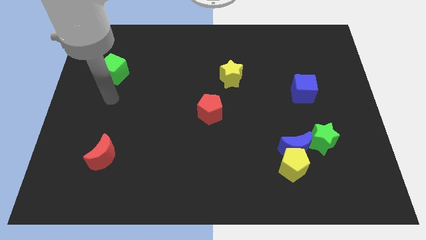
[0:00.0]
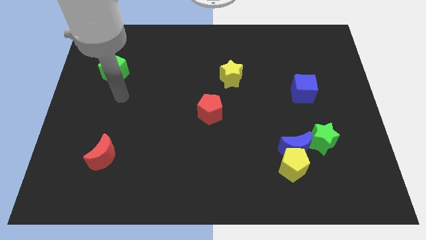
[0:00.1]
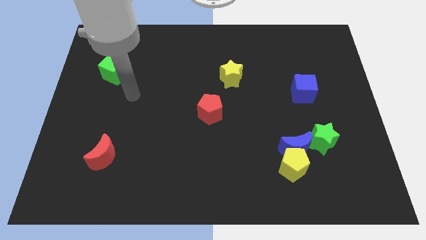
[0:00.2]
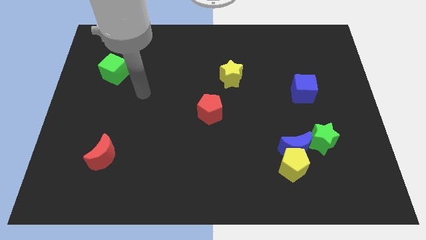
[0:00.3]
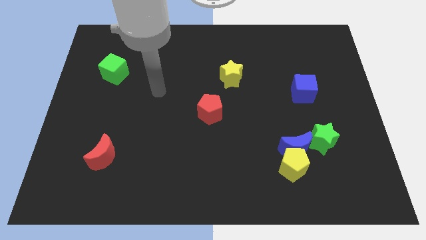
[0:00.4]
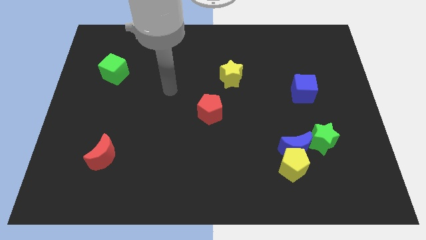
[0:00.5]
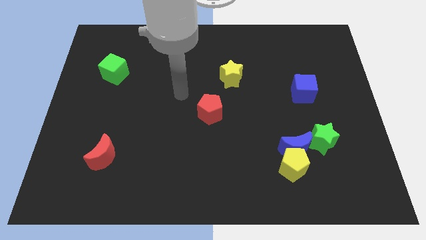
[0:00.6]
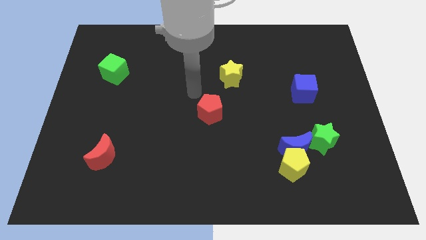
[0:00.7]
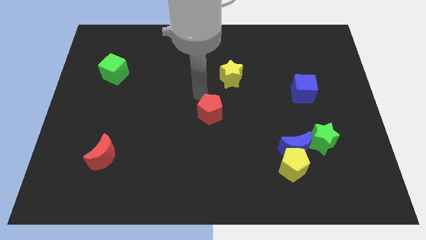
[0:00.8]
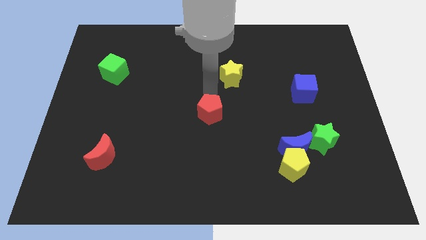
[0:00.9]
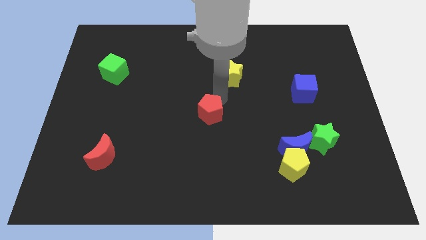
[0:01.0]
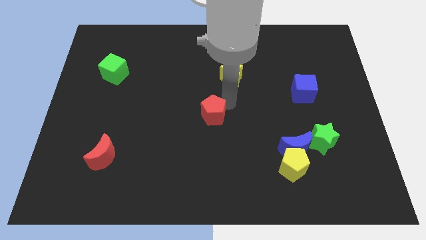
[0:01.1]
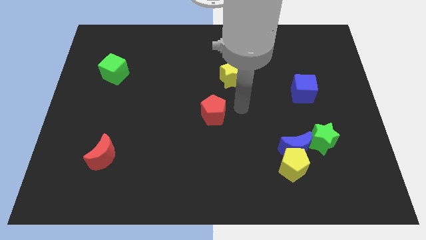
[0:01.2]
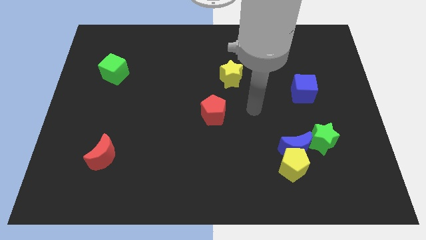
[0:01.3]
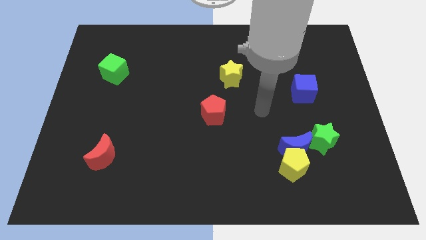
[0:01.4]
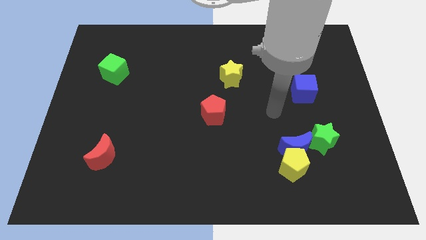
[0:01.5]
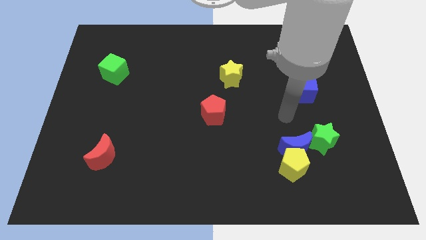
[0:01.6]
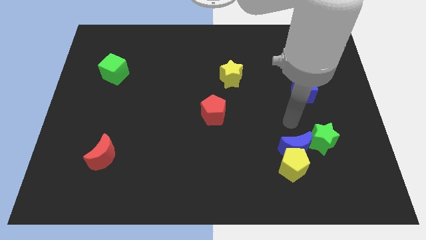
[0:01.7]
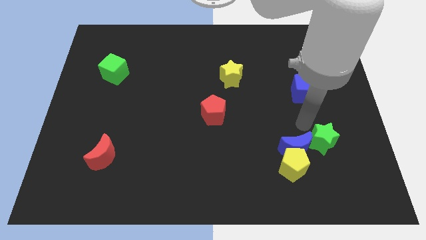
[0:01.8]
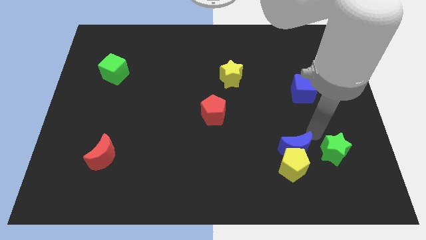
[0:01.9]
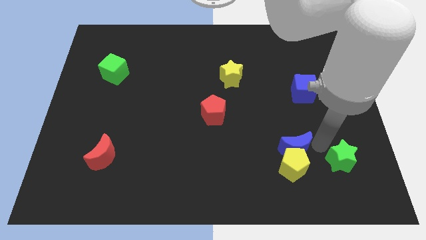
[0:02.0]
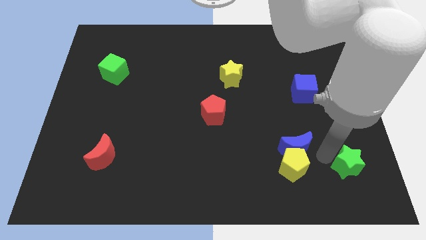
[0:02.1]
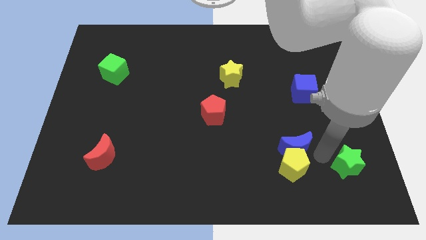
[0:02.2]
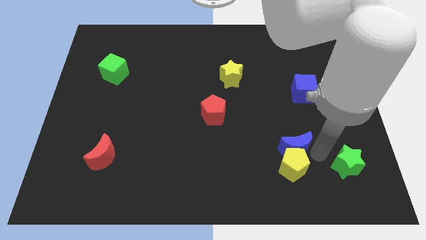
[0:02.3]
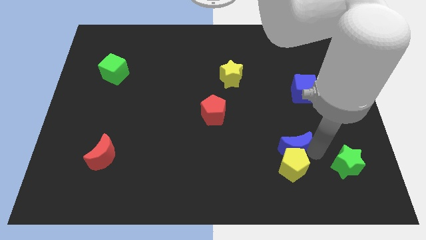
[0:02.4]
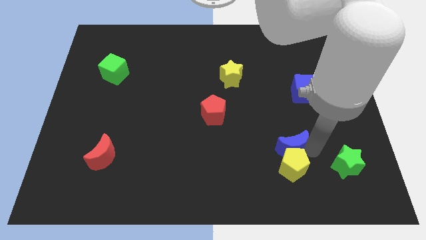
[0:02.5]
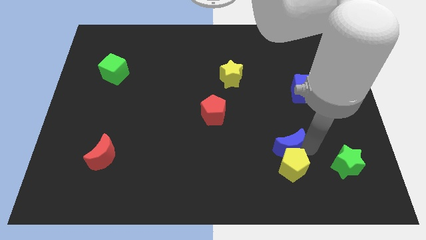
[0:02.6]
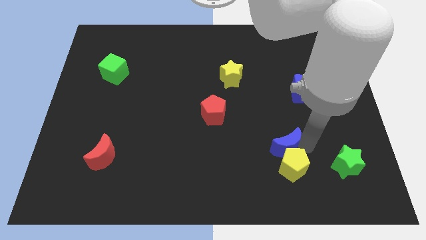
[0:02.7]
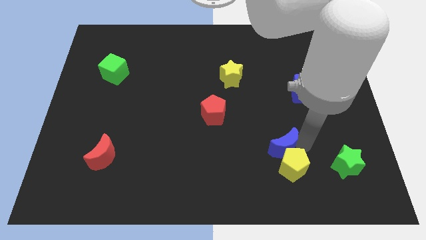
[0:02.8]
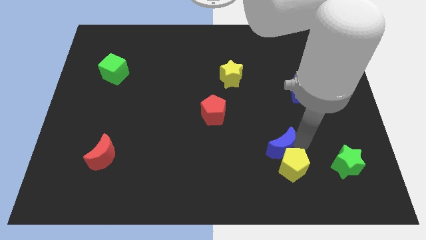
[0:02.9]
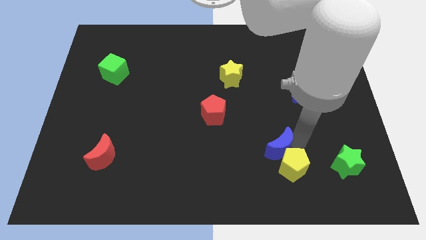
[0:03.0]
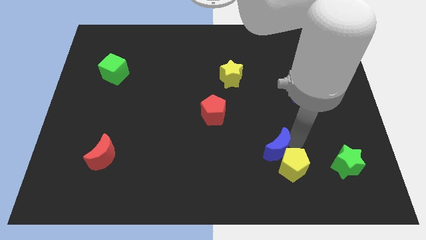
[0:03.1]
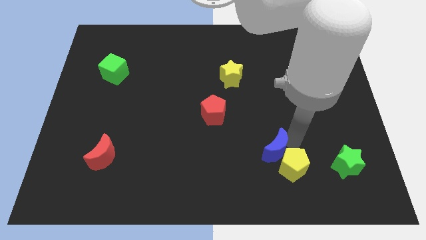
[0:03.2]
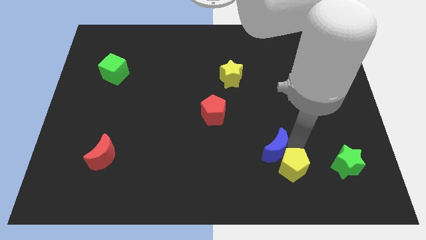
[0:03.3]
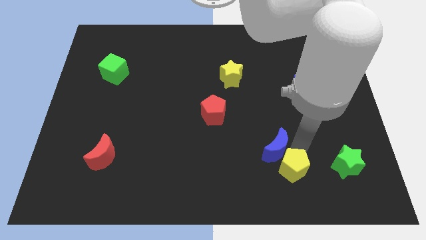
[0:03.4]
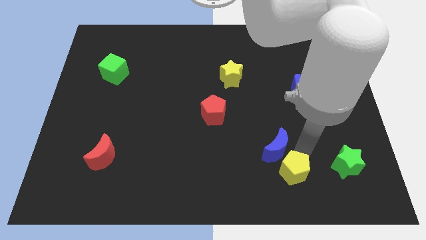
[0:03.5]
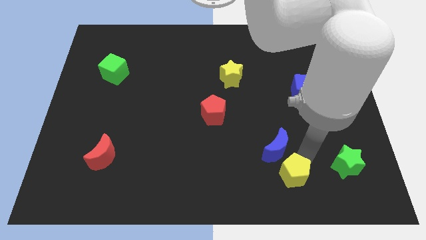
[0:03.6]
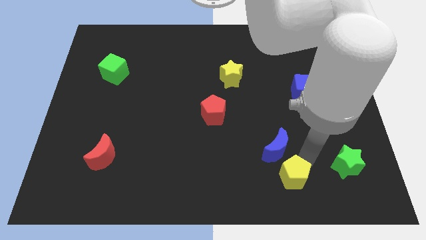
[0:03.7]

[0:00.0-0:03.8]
pull the blue moon apart from the yellow pentagon and green star

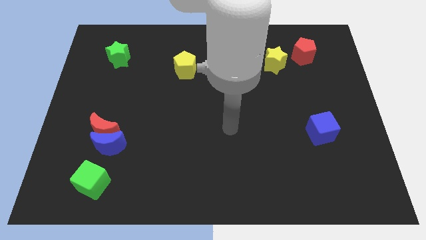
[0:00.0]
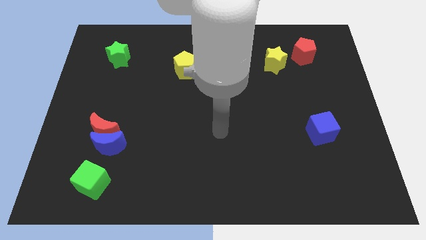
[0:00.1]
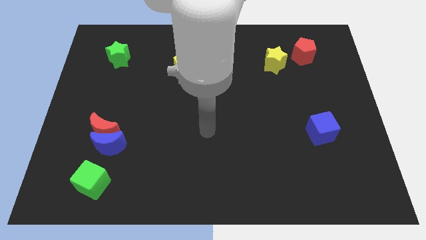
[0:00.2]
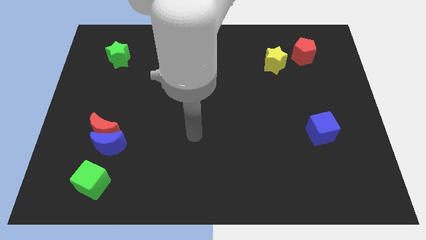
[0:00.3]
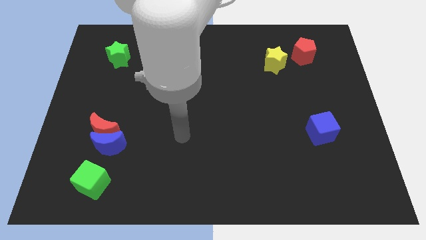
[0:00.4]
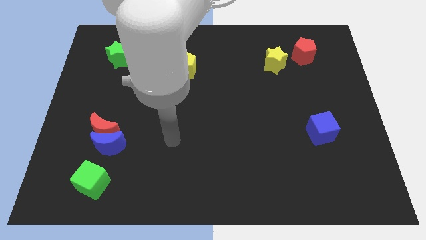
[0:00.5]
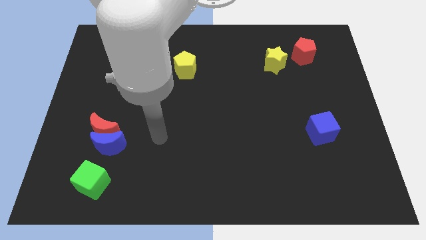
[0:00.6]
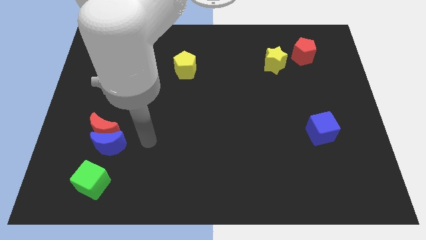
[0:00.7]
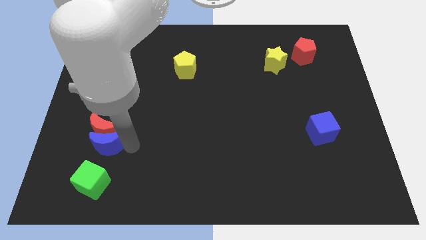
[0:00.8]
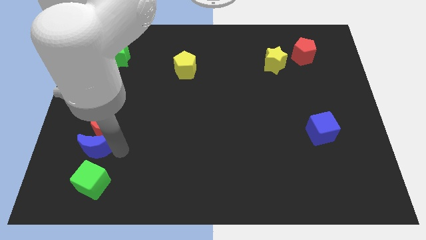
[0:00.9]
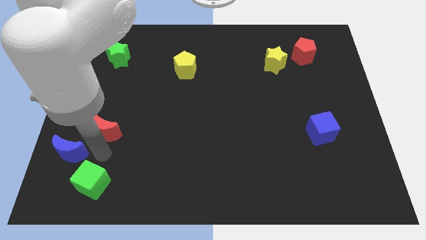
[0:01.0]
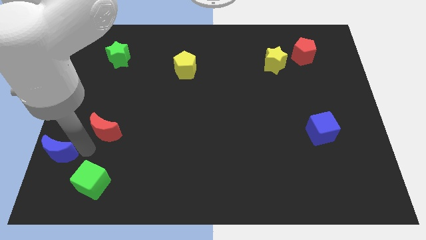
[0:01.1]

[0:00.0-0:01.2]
pull the red moon apart from the blue moon

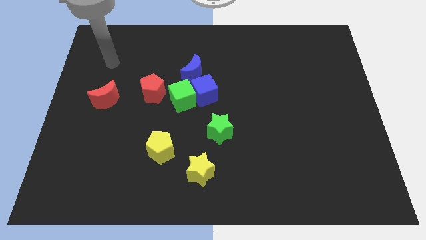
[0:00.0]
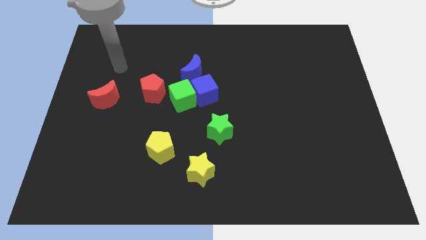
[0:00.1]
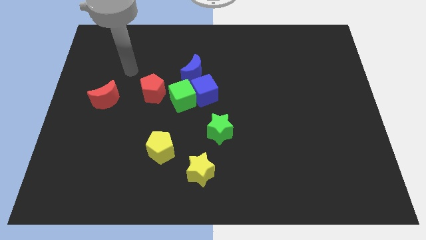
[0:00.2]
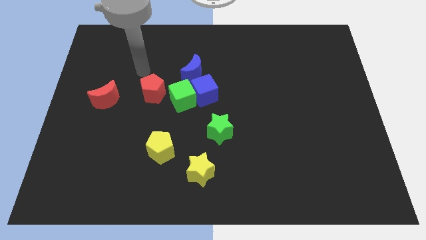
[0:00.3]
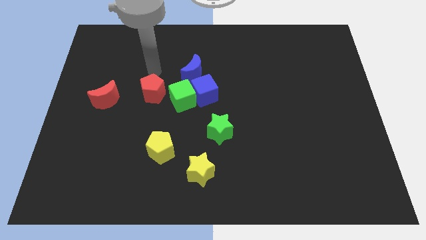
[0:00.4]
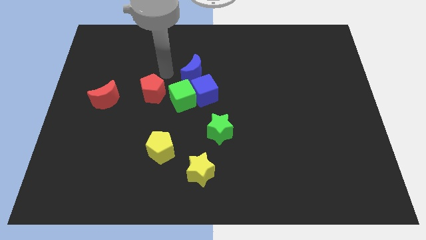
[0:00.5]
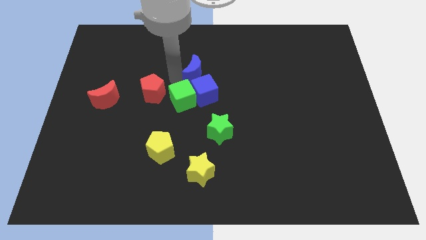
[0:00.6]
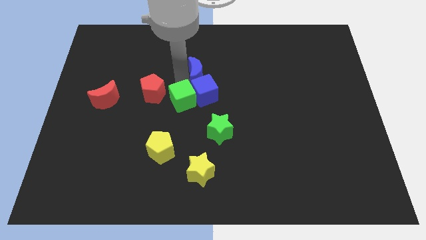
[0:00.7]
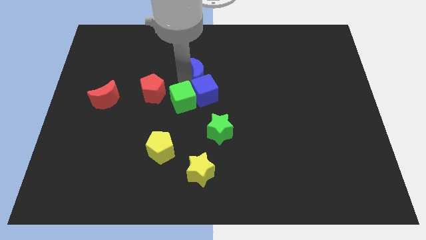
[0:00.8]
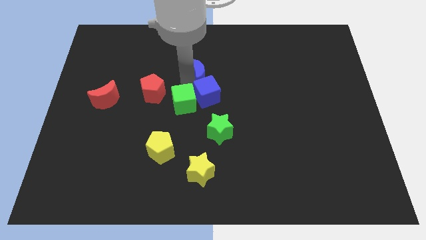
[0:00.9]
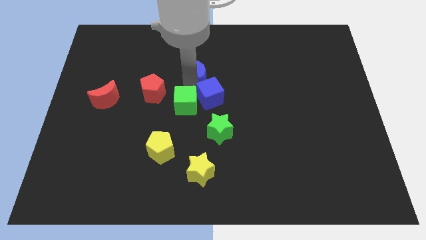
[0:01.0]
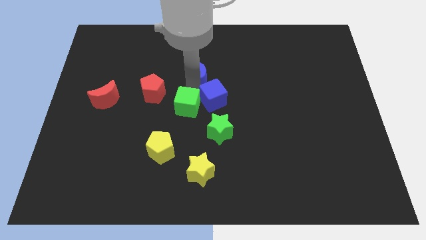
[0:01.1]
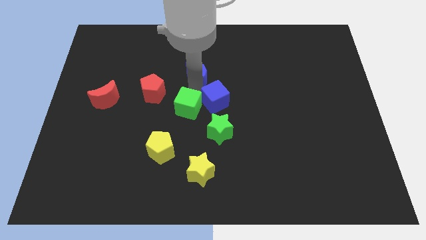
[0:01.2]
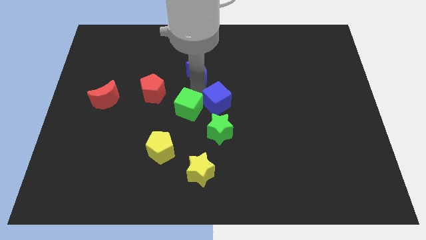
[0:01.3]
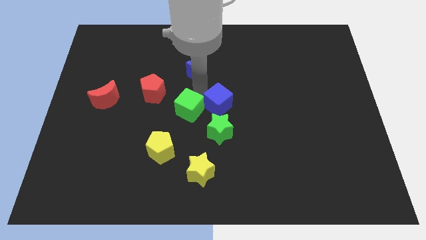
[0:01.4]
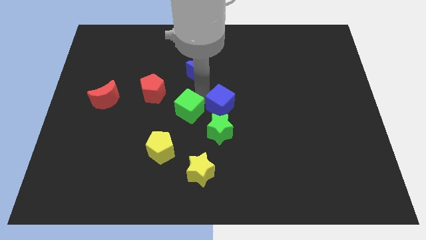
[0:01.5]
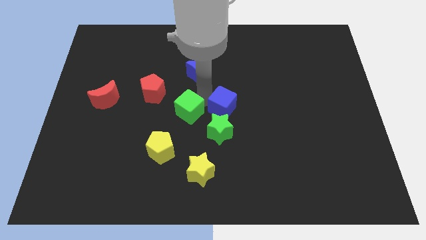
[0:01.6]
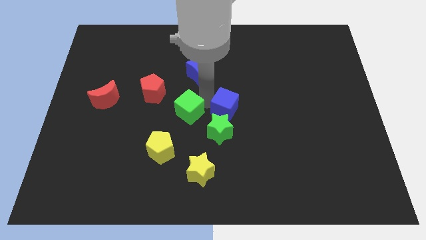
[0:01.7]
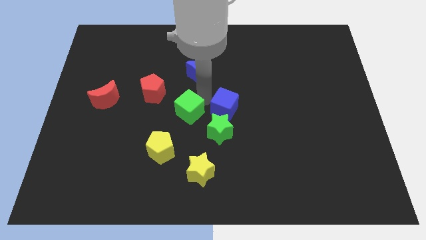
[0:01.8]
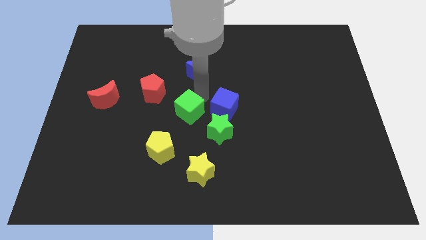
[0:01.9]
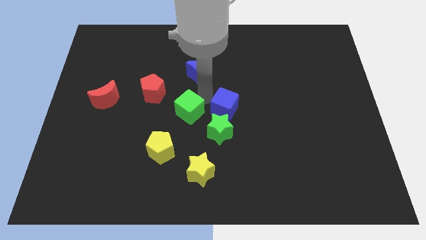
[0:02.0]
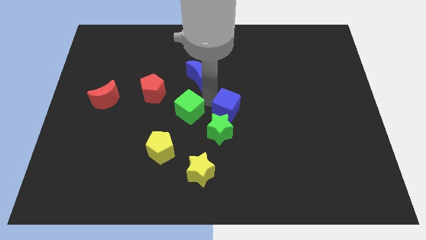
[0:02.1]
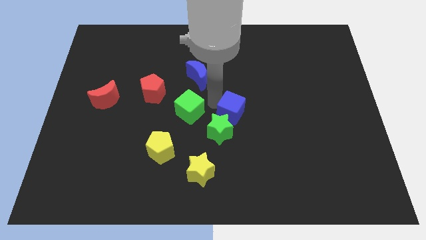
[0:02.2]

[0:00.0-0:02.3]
pull the blue cube apart from the green cube and blue moon

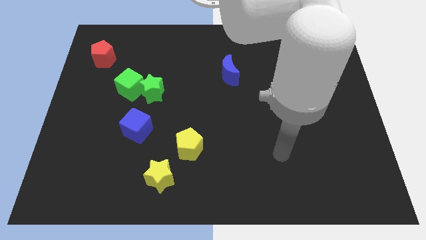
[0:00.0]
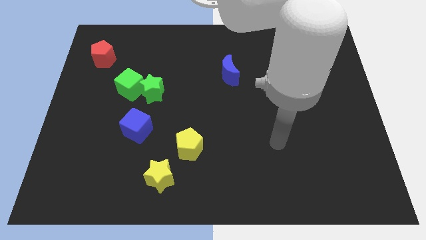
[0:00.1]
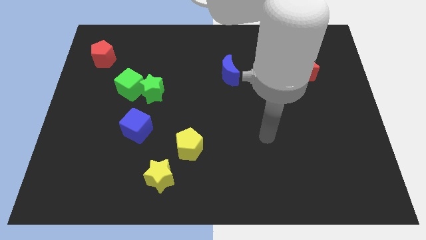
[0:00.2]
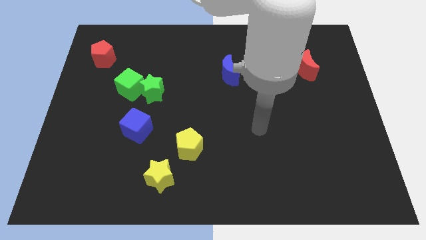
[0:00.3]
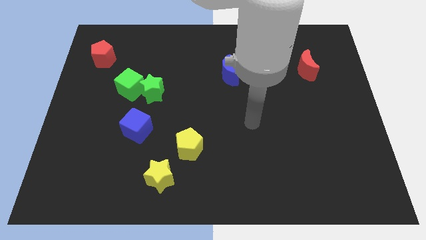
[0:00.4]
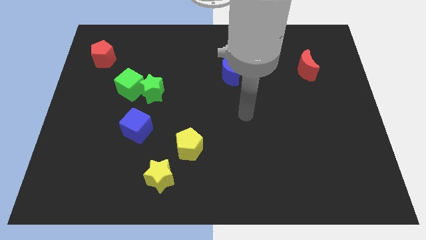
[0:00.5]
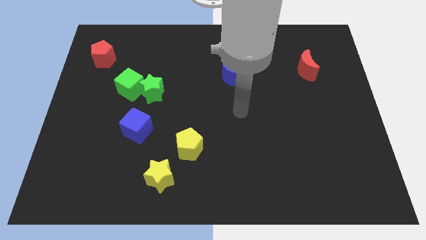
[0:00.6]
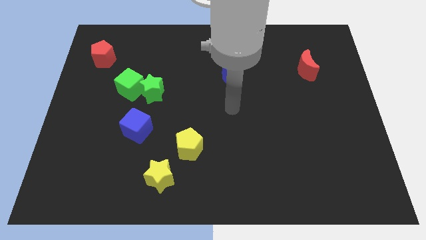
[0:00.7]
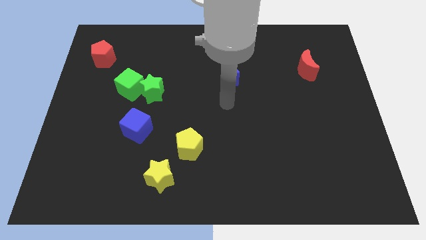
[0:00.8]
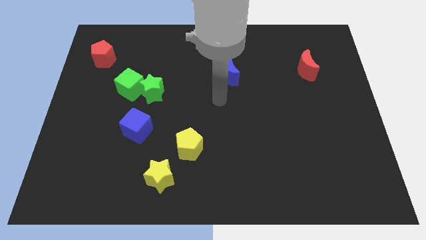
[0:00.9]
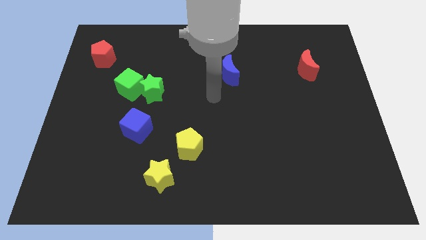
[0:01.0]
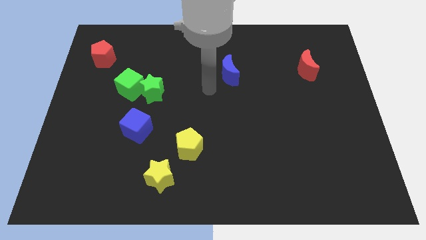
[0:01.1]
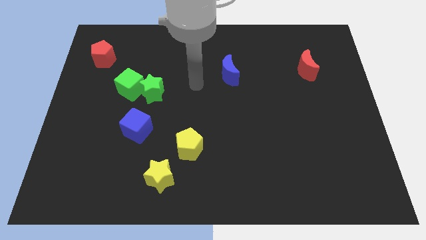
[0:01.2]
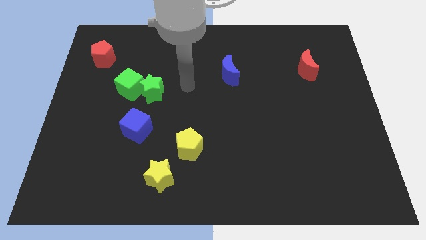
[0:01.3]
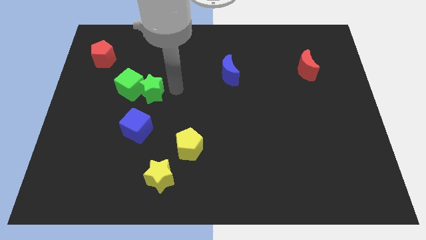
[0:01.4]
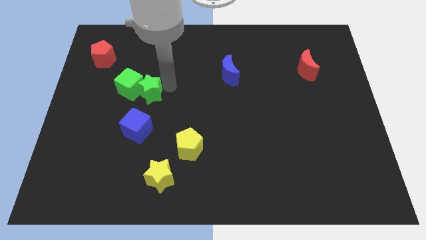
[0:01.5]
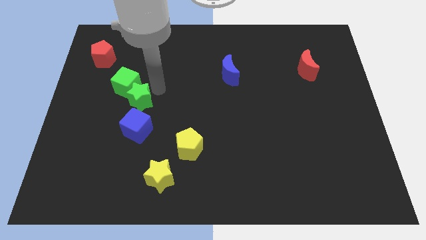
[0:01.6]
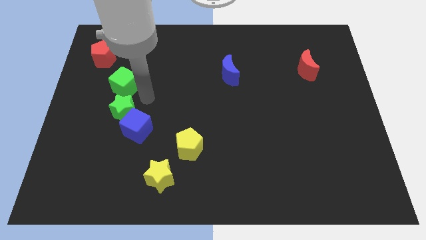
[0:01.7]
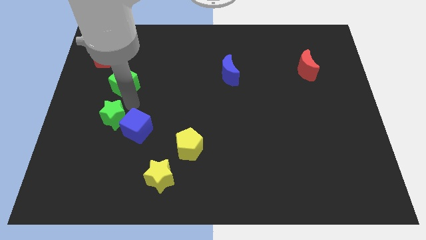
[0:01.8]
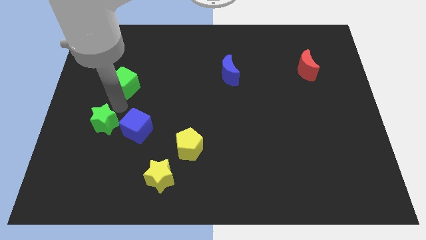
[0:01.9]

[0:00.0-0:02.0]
separate the green cube from the green star

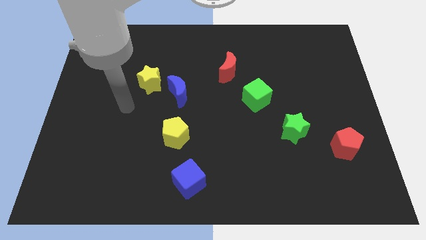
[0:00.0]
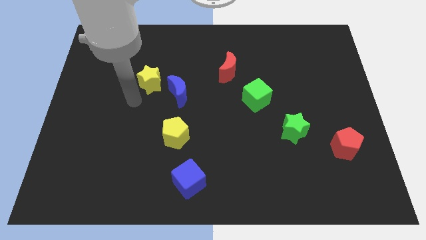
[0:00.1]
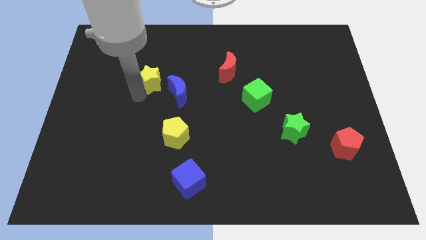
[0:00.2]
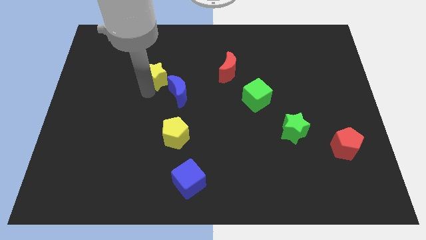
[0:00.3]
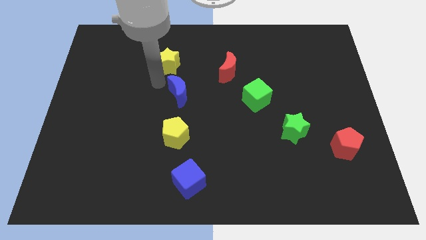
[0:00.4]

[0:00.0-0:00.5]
move the blue moon away from the yellow star
